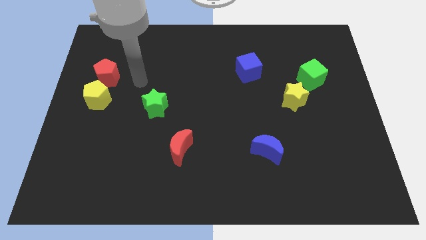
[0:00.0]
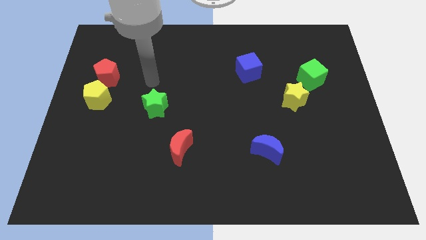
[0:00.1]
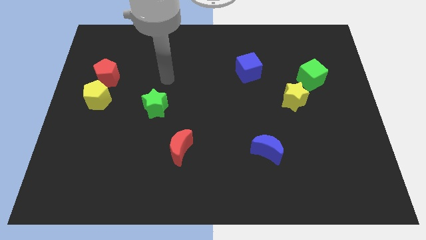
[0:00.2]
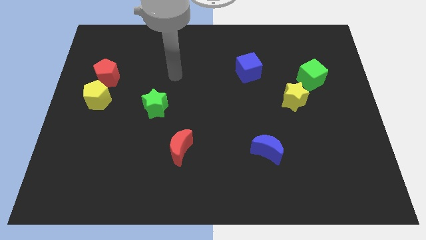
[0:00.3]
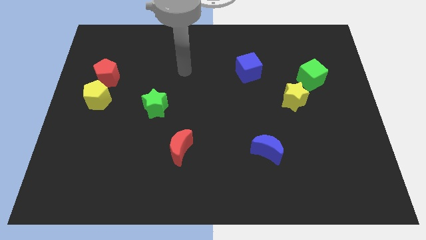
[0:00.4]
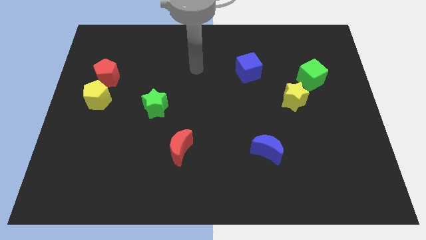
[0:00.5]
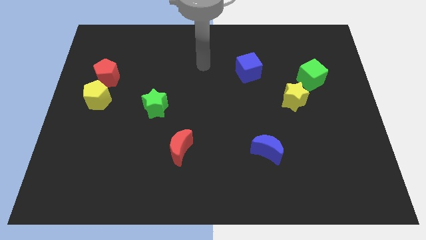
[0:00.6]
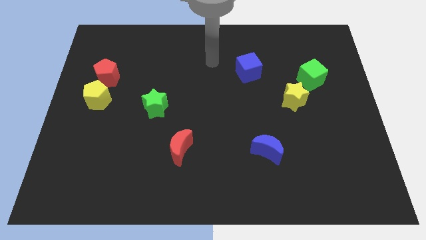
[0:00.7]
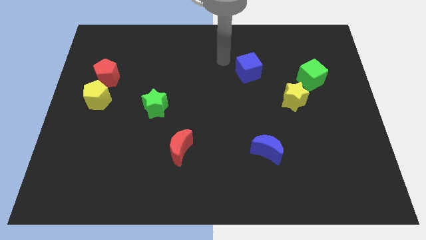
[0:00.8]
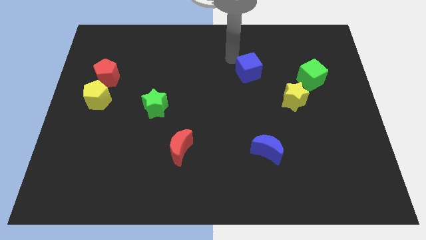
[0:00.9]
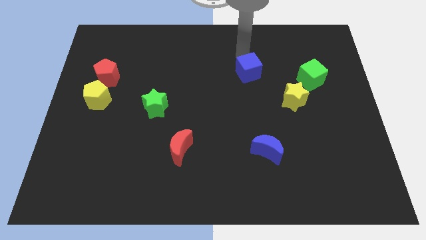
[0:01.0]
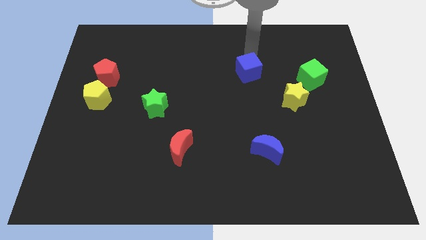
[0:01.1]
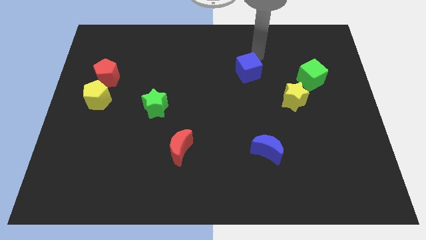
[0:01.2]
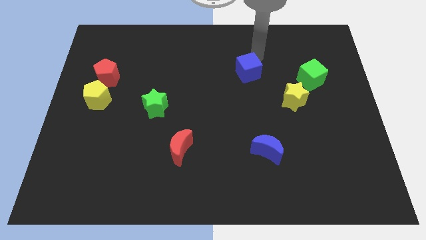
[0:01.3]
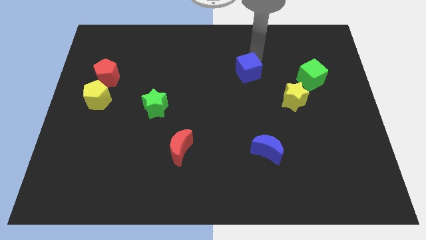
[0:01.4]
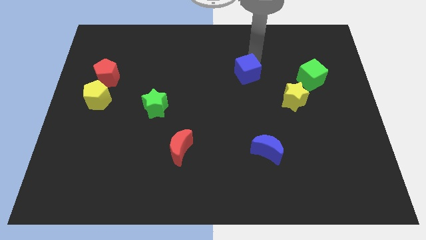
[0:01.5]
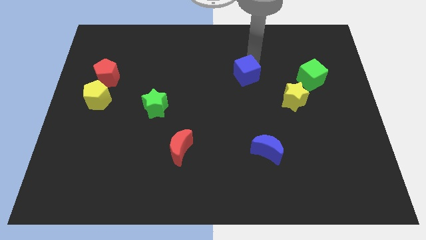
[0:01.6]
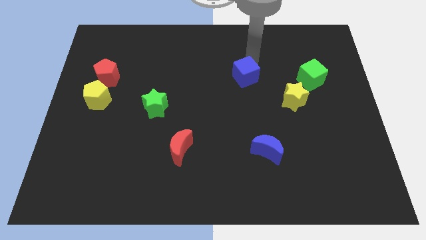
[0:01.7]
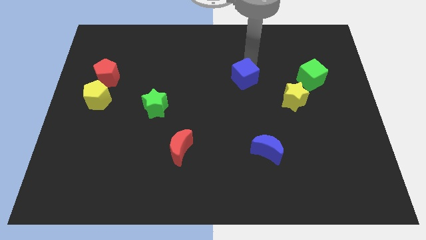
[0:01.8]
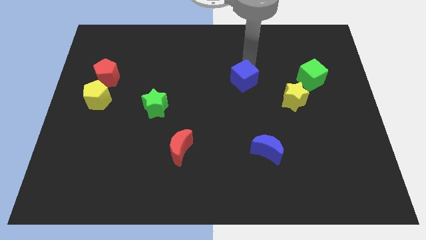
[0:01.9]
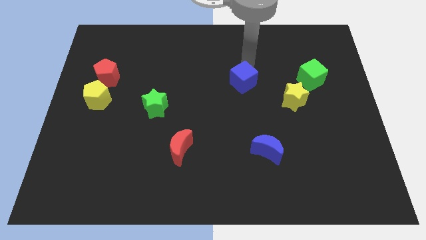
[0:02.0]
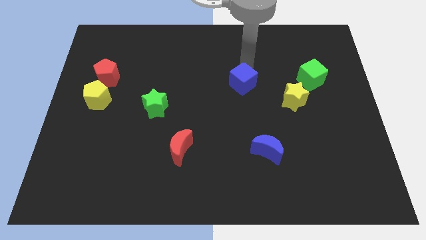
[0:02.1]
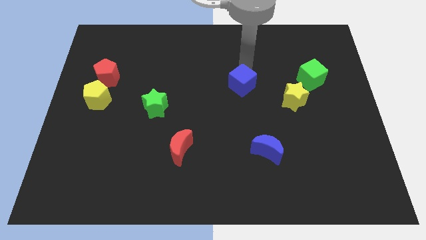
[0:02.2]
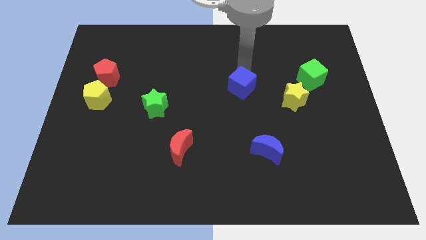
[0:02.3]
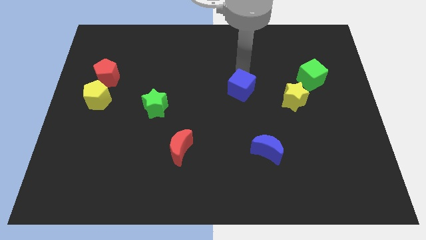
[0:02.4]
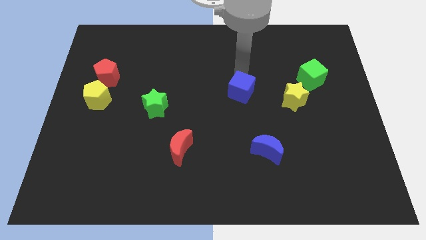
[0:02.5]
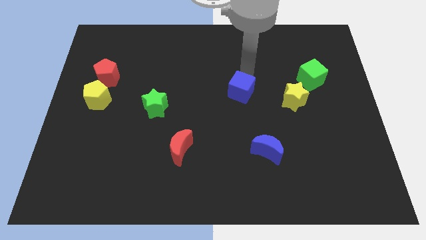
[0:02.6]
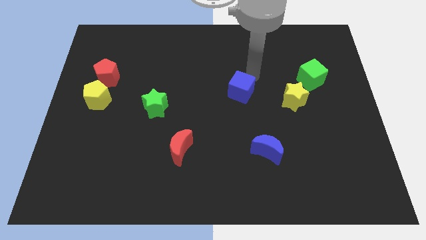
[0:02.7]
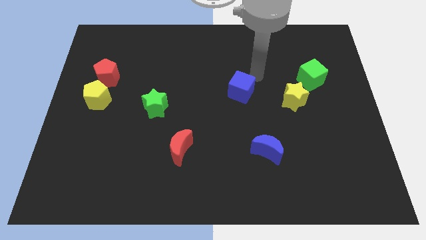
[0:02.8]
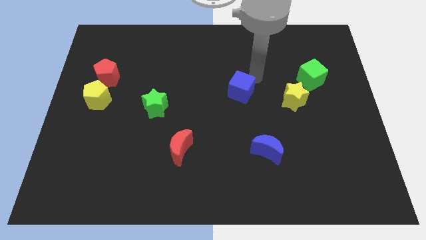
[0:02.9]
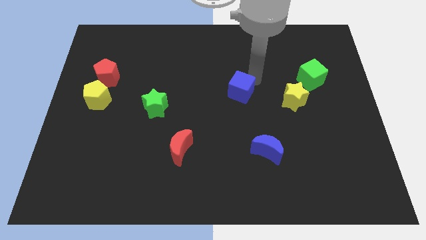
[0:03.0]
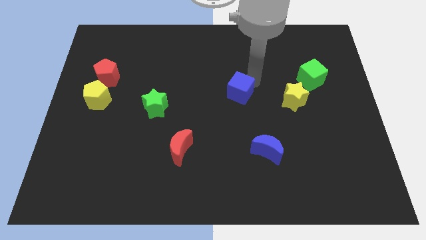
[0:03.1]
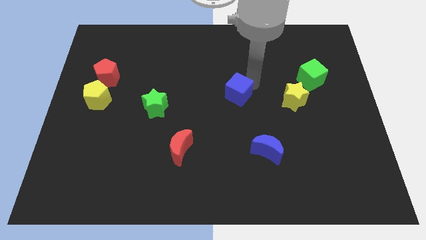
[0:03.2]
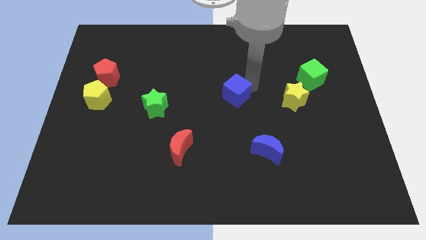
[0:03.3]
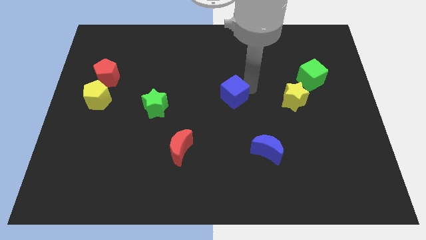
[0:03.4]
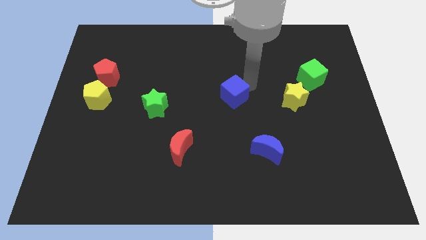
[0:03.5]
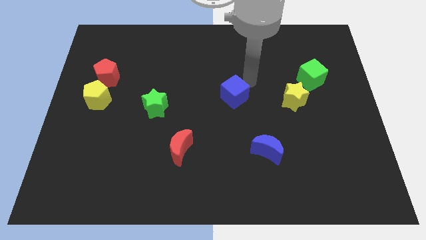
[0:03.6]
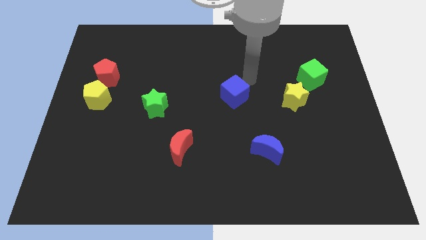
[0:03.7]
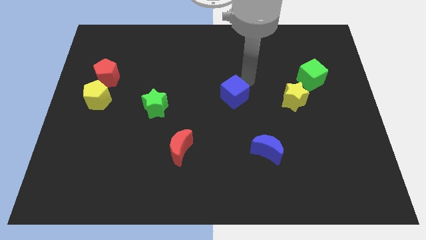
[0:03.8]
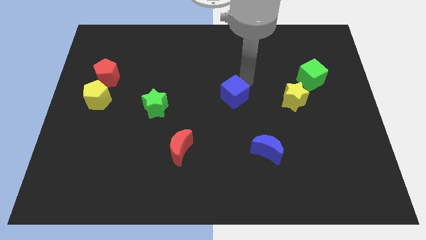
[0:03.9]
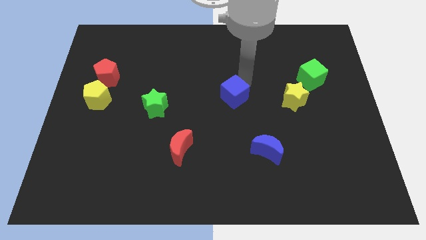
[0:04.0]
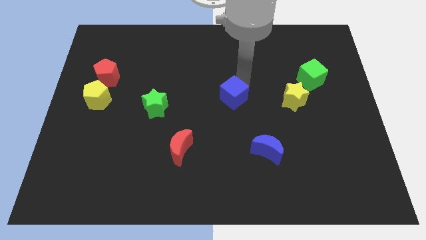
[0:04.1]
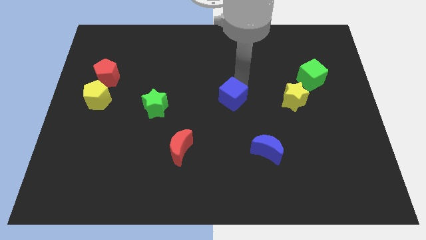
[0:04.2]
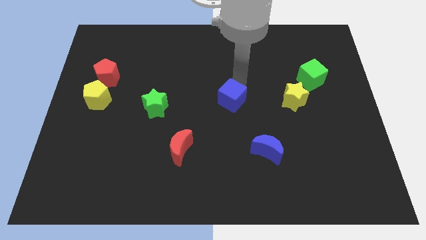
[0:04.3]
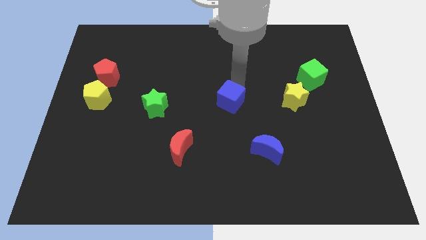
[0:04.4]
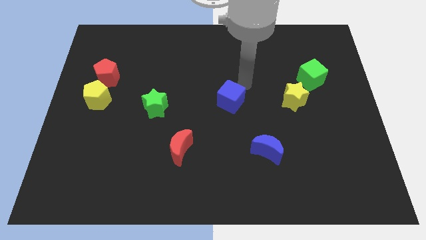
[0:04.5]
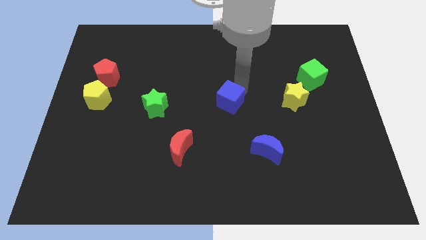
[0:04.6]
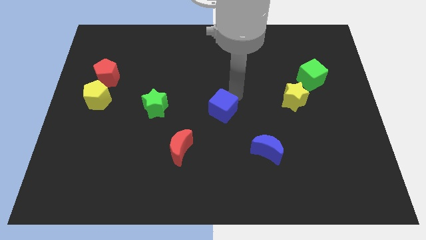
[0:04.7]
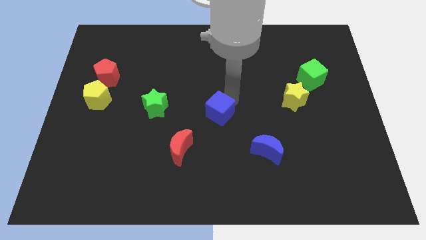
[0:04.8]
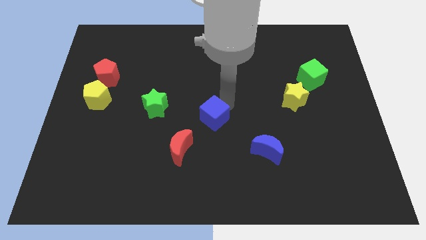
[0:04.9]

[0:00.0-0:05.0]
put the blue cube diagonally up and to the right of the red moon

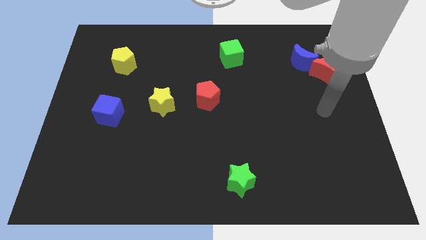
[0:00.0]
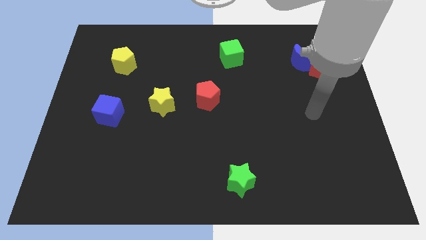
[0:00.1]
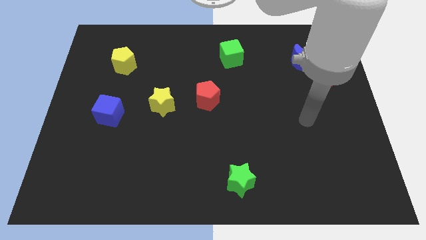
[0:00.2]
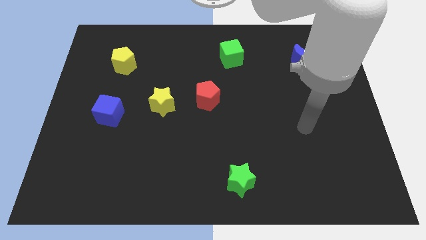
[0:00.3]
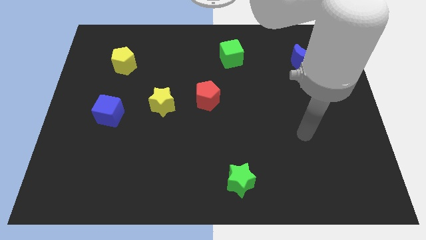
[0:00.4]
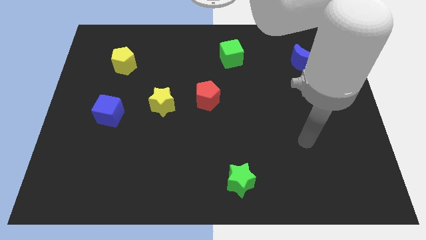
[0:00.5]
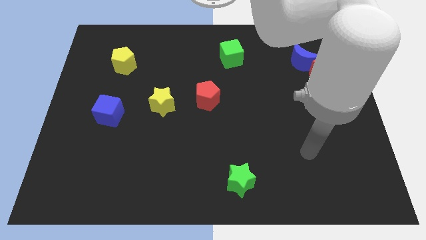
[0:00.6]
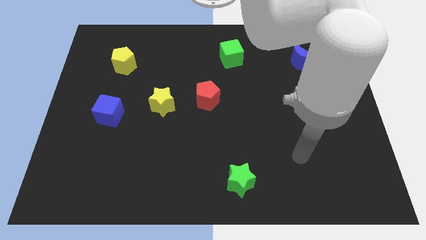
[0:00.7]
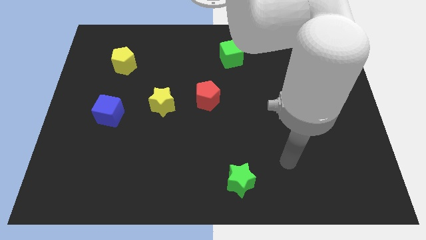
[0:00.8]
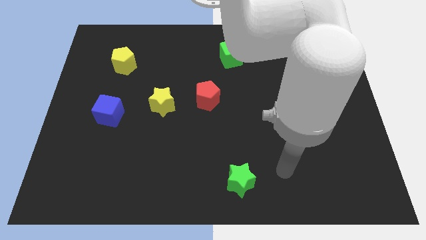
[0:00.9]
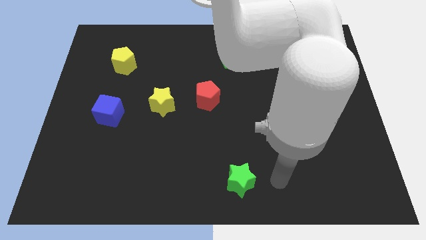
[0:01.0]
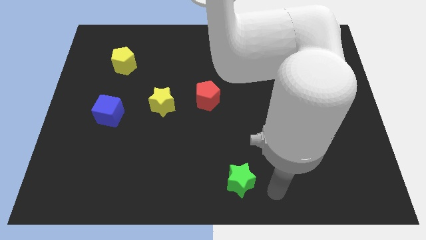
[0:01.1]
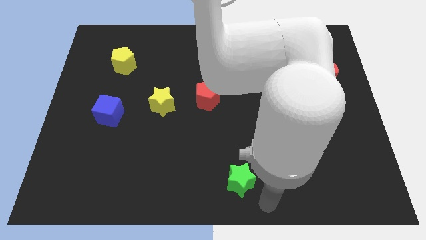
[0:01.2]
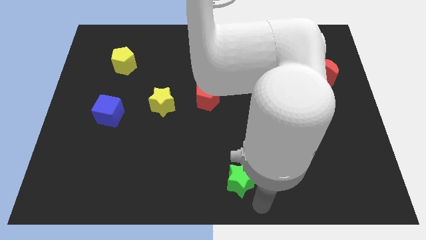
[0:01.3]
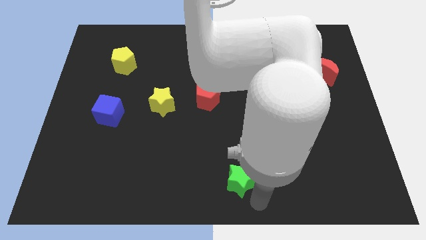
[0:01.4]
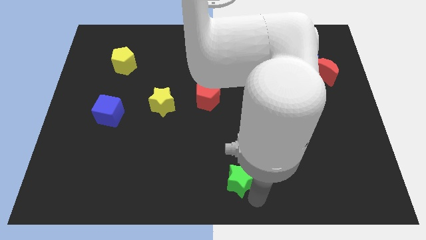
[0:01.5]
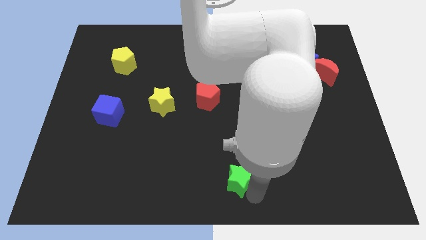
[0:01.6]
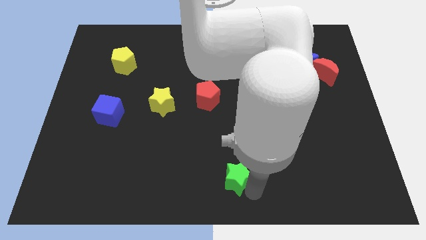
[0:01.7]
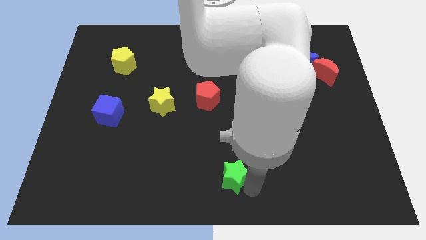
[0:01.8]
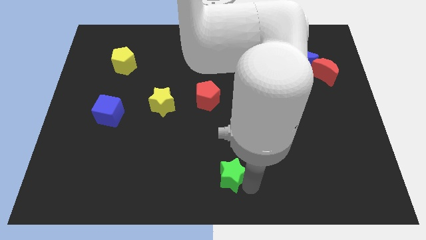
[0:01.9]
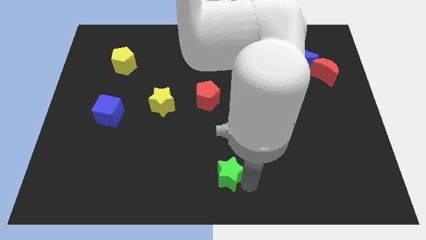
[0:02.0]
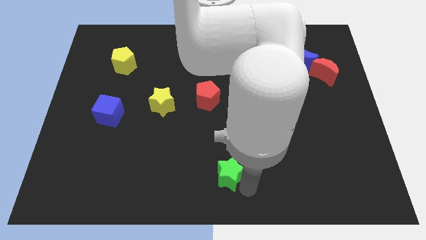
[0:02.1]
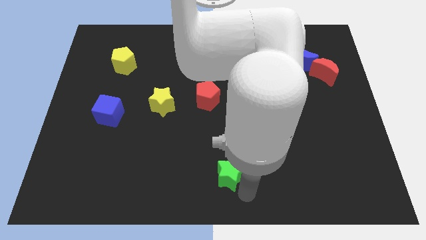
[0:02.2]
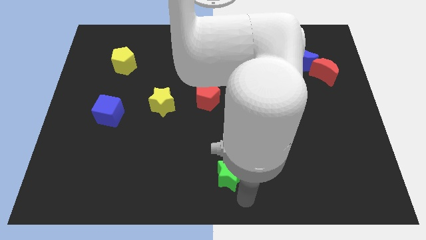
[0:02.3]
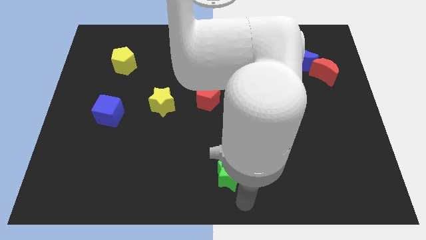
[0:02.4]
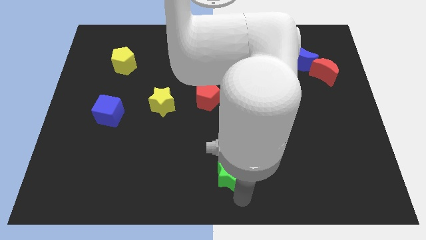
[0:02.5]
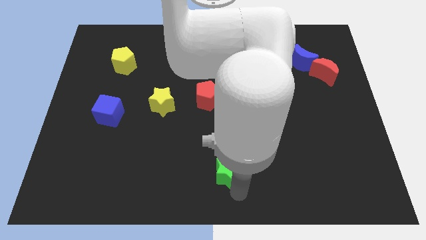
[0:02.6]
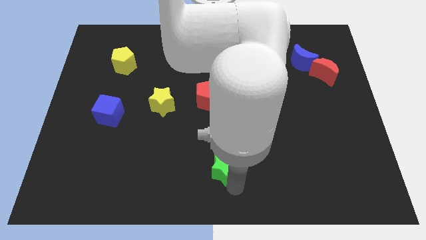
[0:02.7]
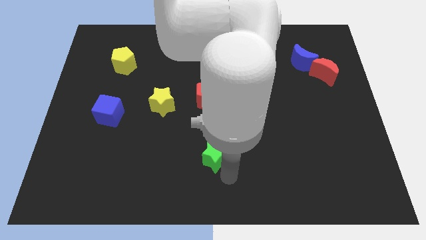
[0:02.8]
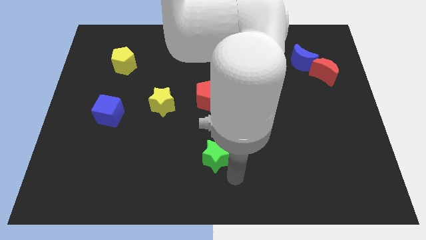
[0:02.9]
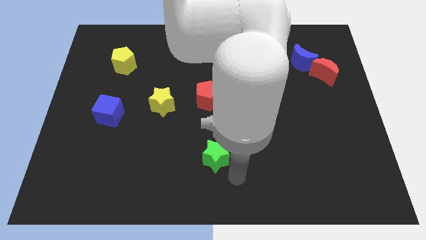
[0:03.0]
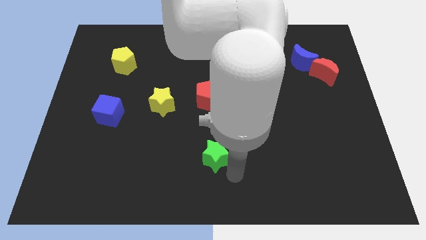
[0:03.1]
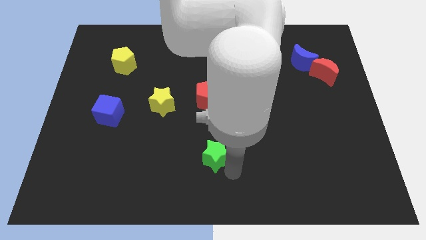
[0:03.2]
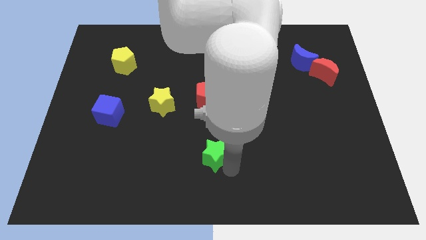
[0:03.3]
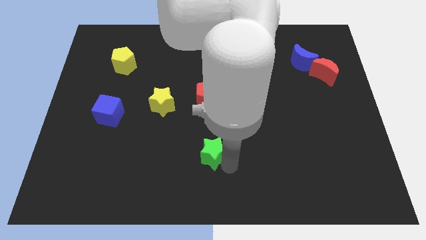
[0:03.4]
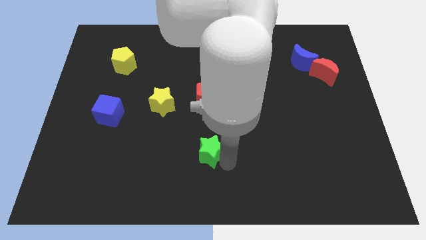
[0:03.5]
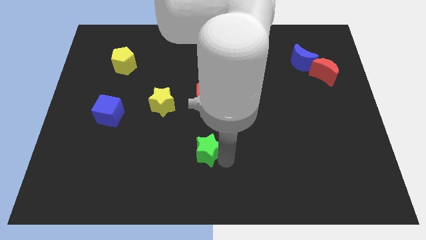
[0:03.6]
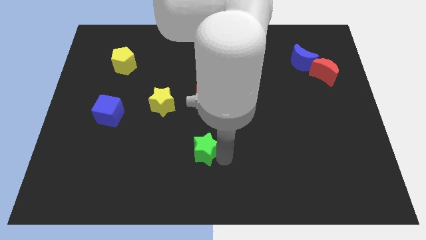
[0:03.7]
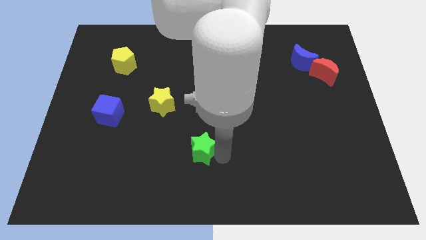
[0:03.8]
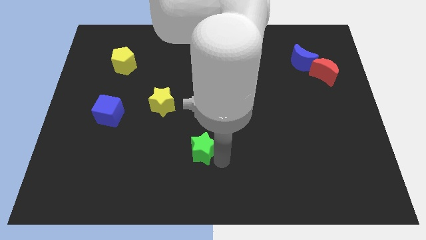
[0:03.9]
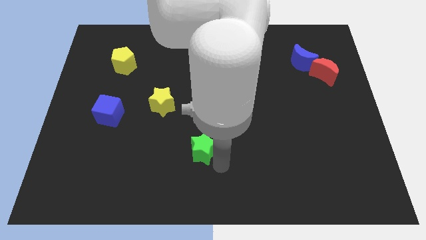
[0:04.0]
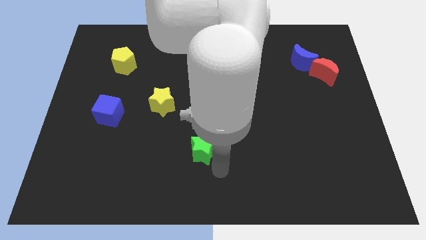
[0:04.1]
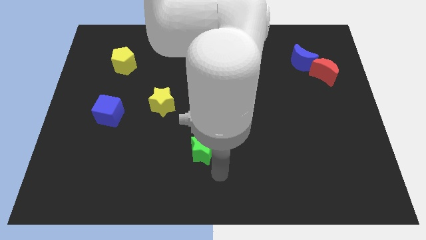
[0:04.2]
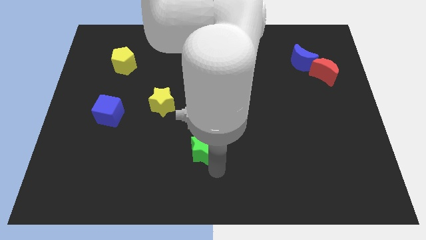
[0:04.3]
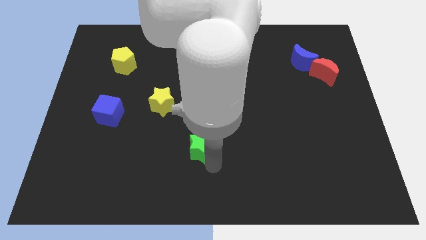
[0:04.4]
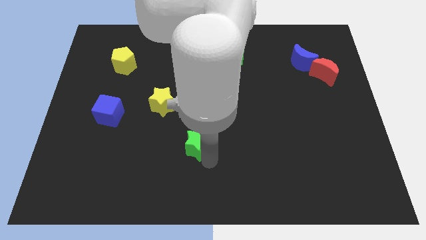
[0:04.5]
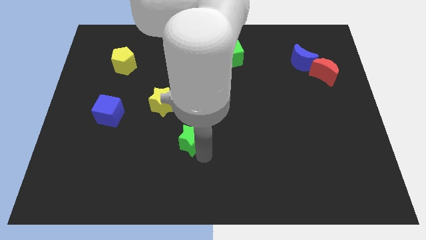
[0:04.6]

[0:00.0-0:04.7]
slide the green star to the bottom right side of the yellow star
